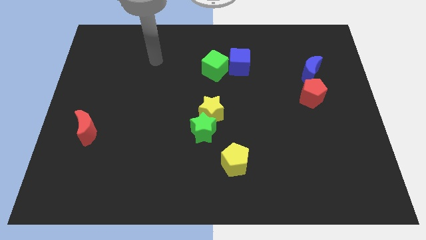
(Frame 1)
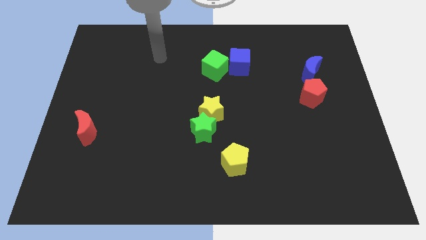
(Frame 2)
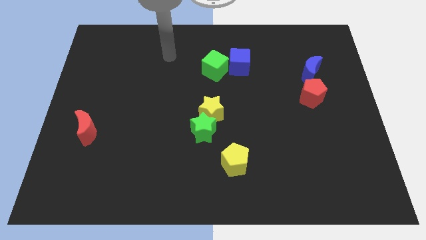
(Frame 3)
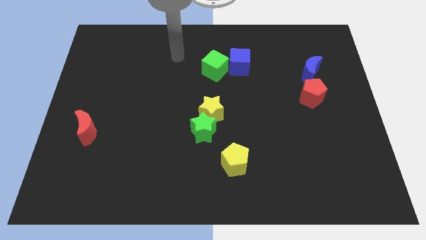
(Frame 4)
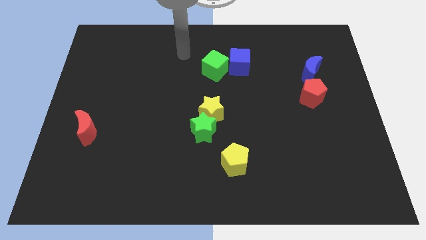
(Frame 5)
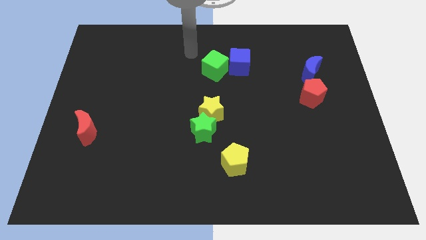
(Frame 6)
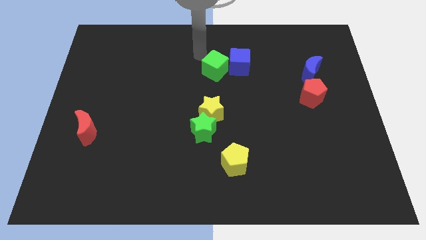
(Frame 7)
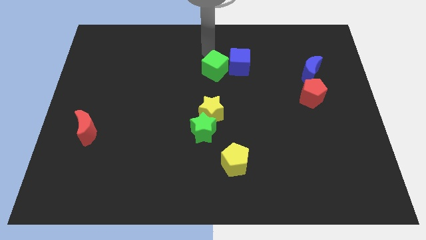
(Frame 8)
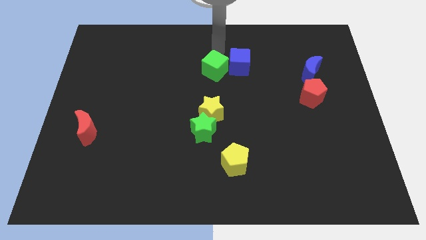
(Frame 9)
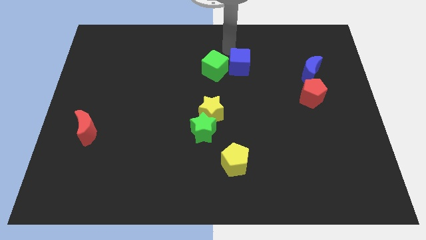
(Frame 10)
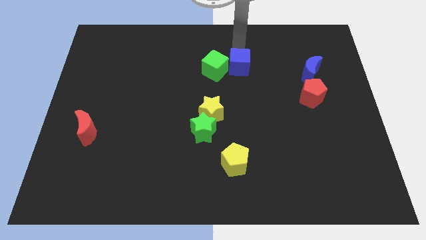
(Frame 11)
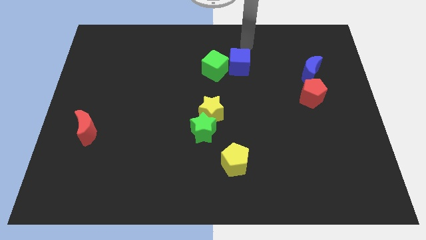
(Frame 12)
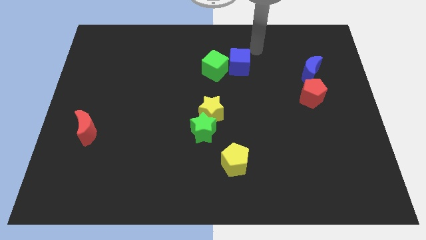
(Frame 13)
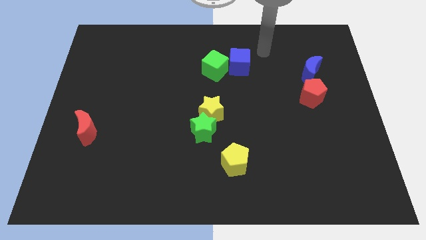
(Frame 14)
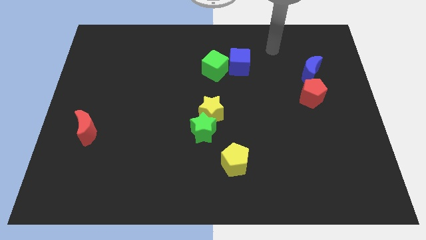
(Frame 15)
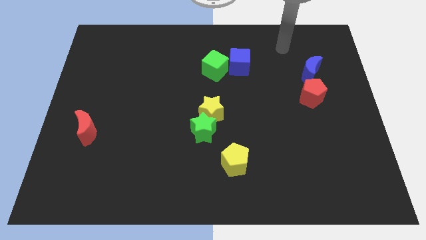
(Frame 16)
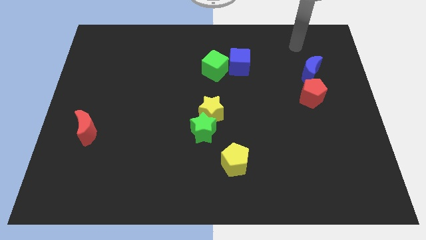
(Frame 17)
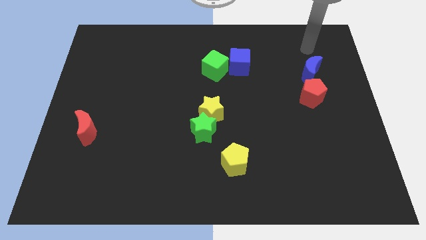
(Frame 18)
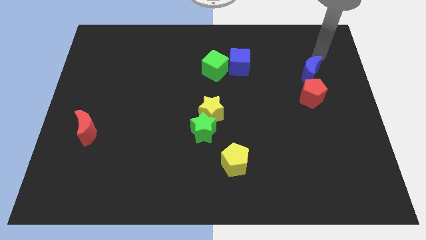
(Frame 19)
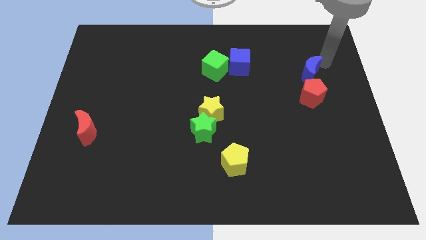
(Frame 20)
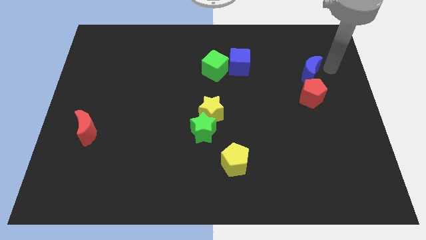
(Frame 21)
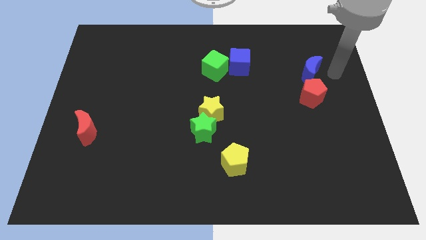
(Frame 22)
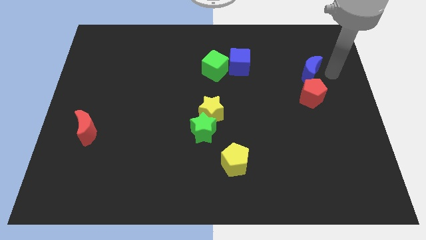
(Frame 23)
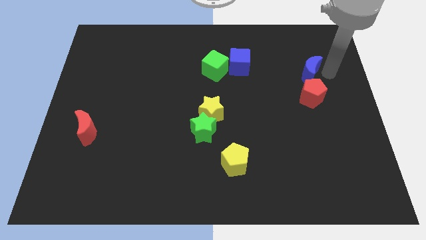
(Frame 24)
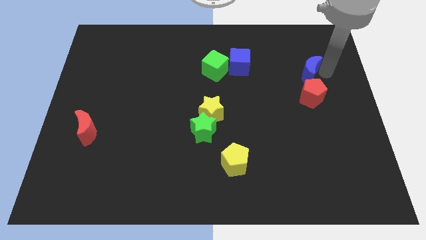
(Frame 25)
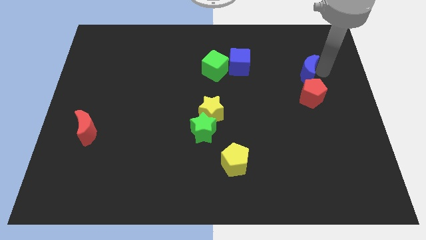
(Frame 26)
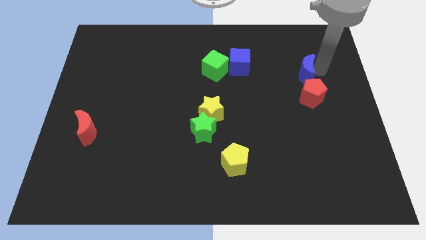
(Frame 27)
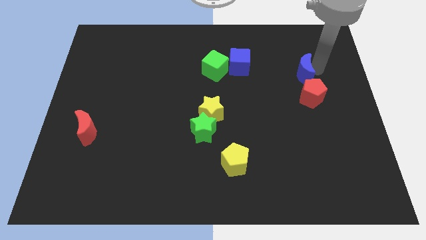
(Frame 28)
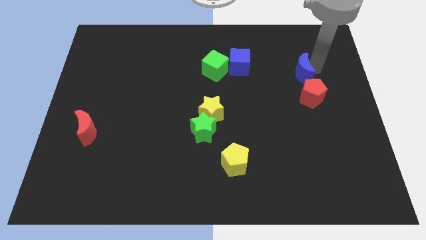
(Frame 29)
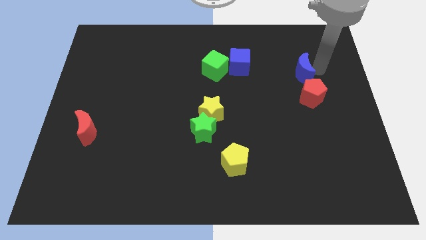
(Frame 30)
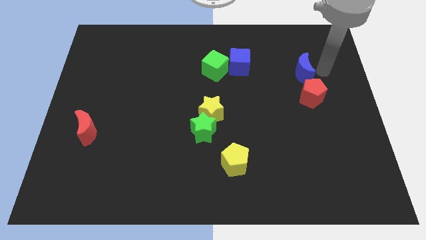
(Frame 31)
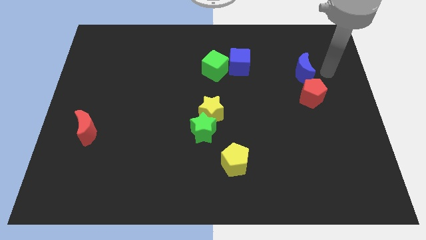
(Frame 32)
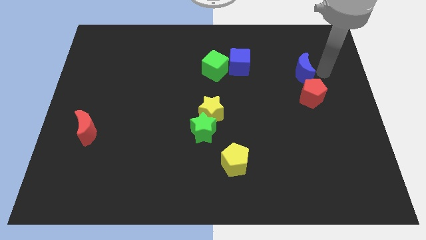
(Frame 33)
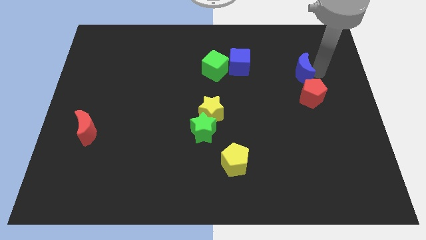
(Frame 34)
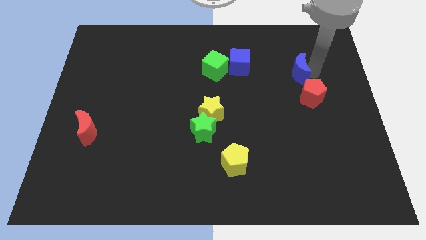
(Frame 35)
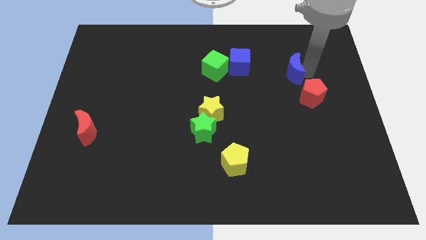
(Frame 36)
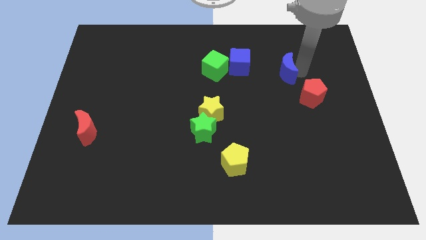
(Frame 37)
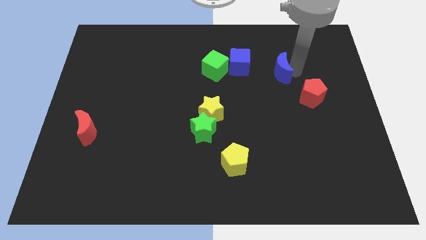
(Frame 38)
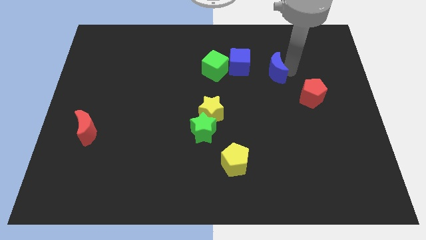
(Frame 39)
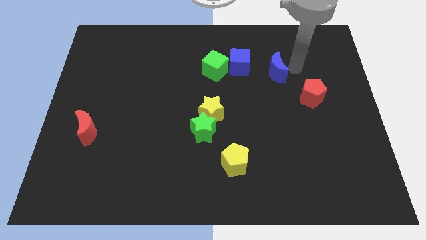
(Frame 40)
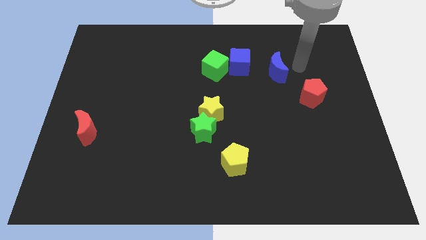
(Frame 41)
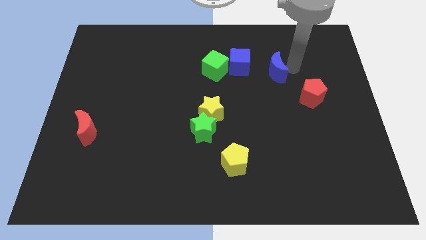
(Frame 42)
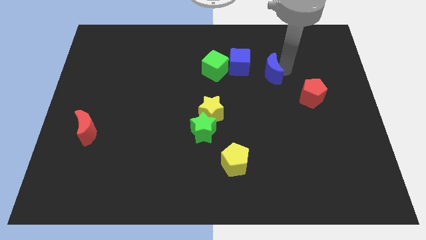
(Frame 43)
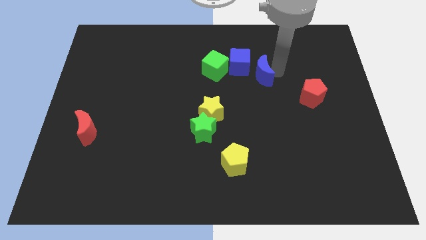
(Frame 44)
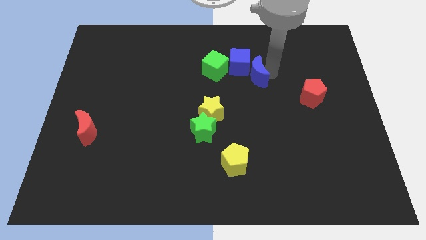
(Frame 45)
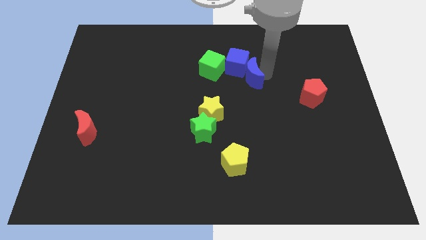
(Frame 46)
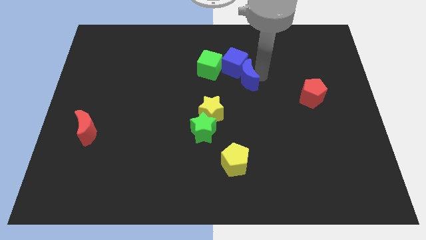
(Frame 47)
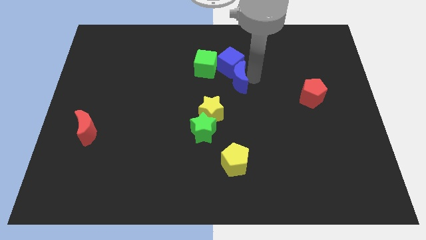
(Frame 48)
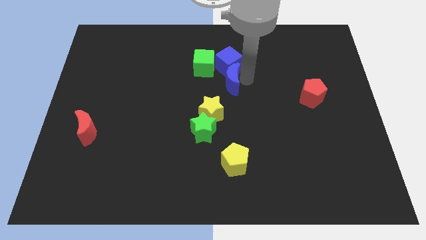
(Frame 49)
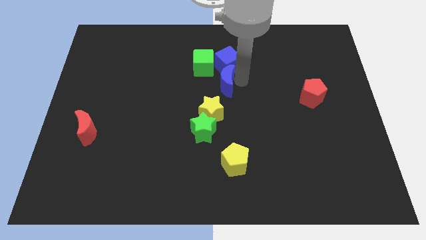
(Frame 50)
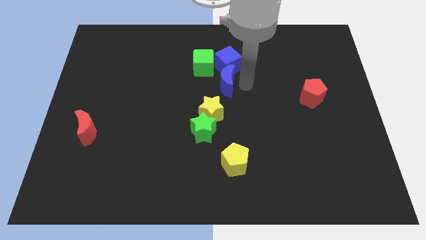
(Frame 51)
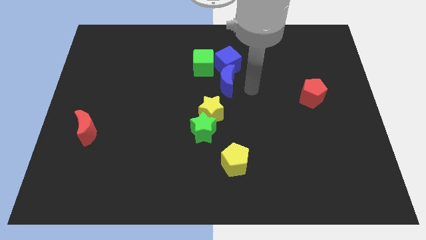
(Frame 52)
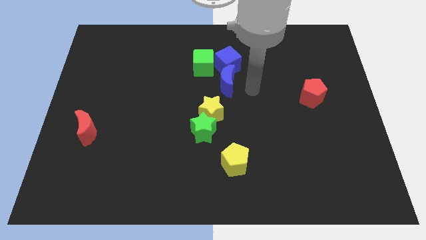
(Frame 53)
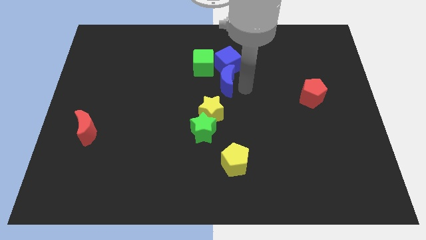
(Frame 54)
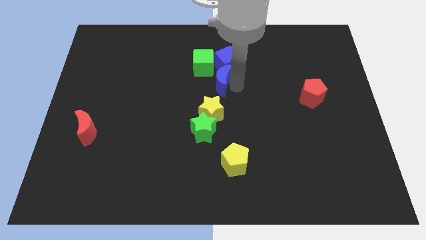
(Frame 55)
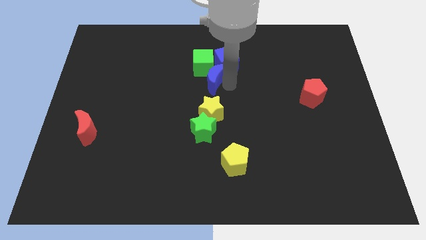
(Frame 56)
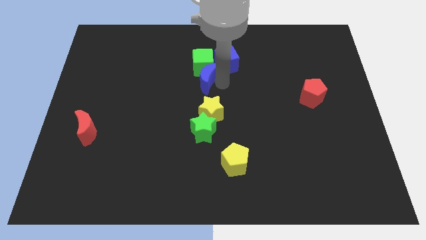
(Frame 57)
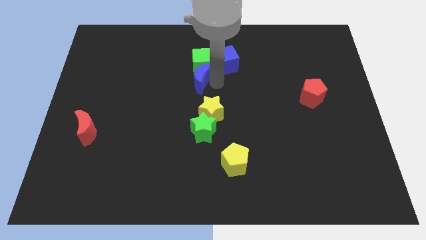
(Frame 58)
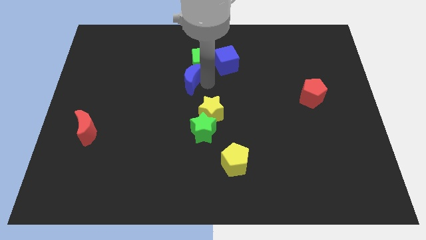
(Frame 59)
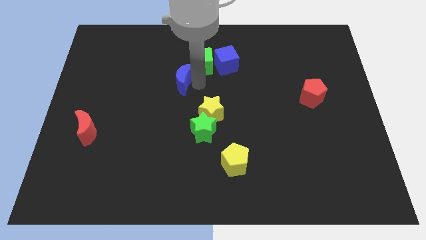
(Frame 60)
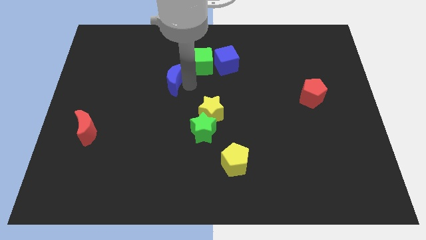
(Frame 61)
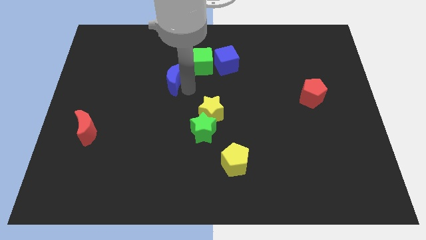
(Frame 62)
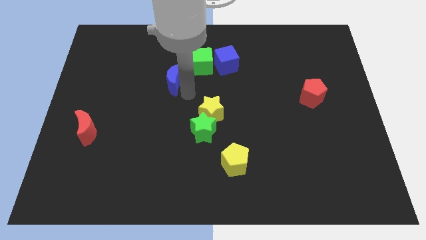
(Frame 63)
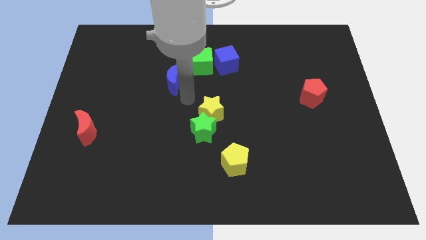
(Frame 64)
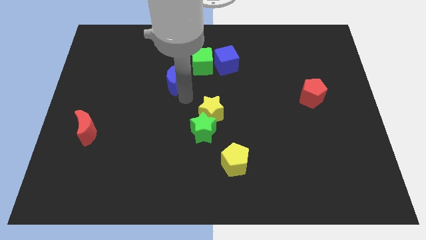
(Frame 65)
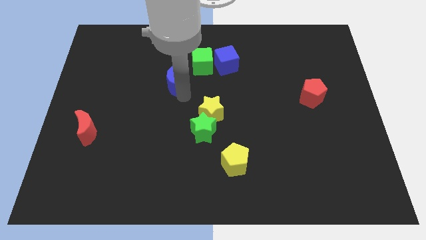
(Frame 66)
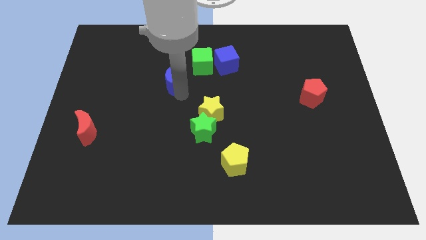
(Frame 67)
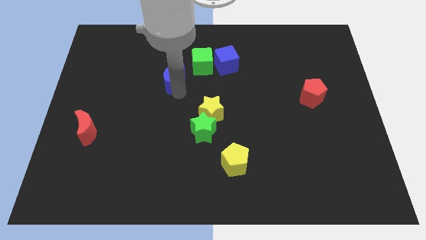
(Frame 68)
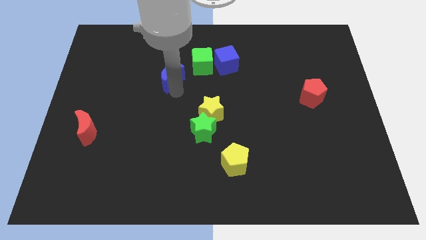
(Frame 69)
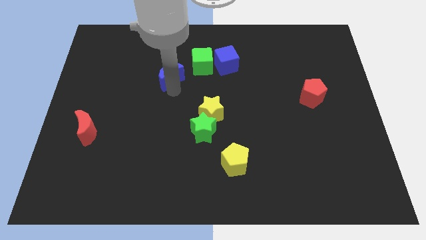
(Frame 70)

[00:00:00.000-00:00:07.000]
put the blue moon to the left side of the green cube

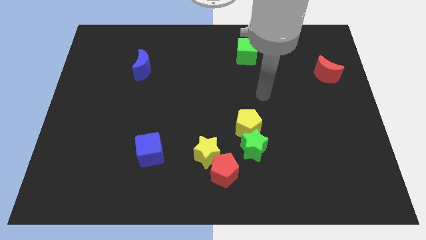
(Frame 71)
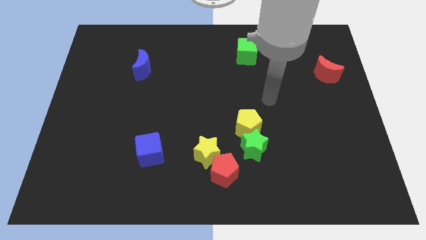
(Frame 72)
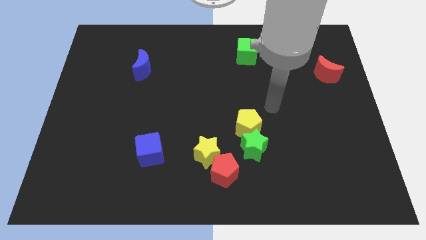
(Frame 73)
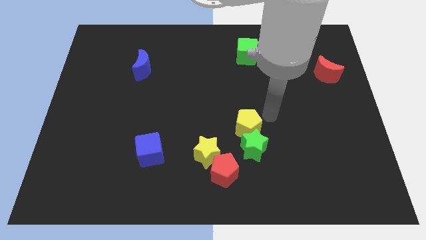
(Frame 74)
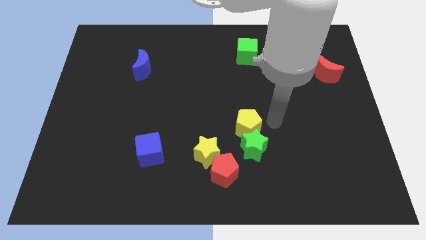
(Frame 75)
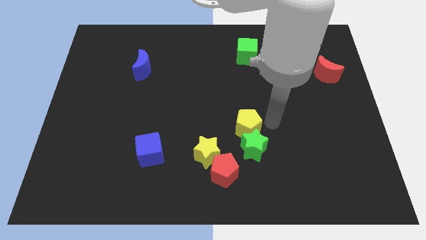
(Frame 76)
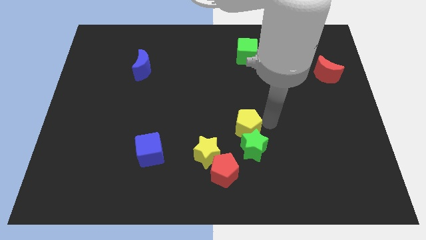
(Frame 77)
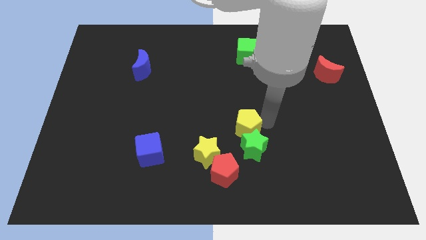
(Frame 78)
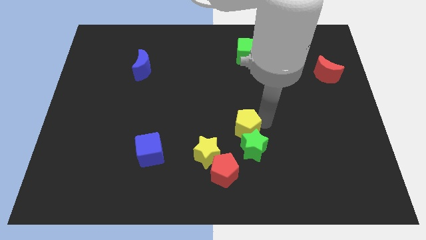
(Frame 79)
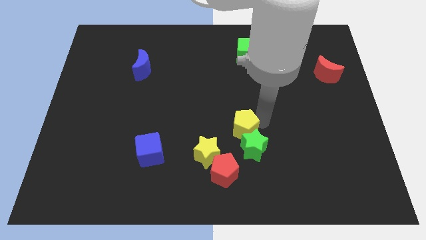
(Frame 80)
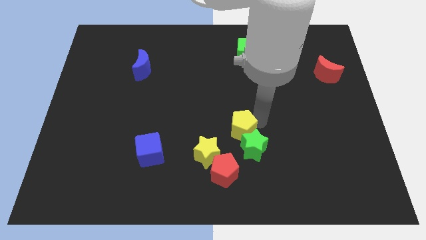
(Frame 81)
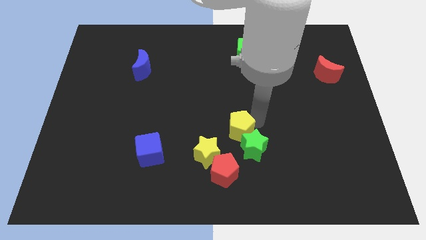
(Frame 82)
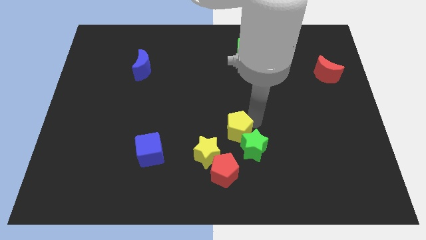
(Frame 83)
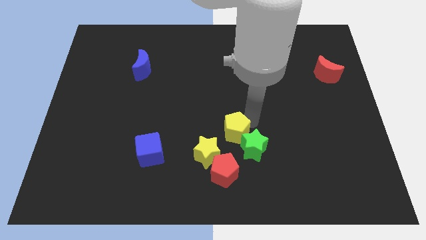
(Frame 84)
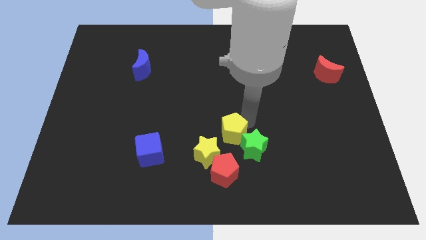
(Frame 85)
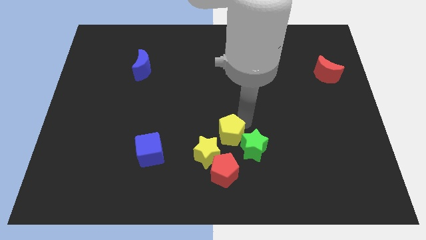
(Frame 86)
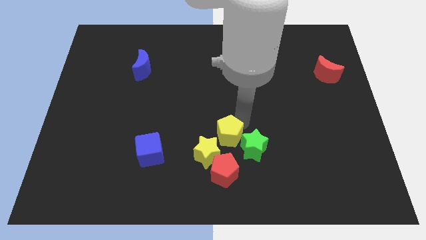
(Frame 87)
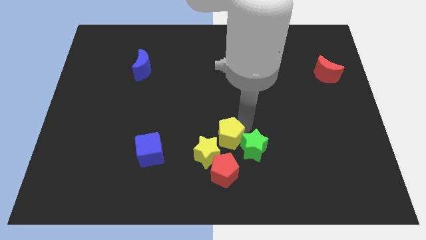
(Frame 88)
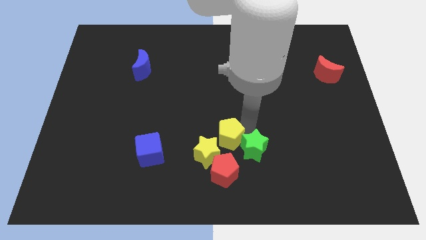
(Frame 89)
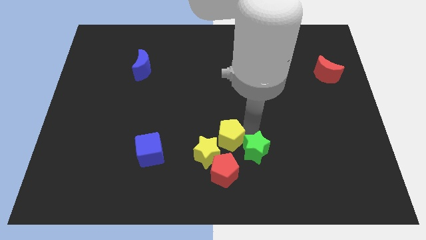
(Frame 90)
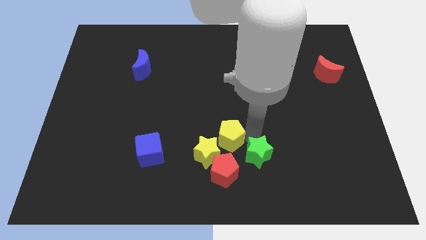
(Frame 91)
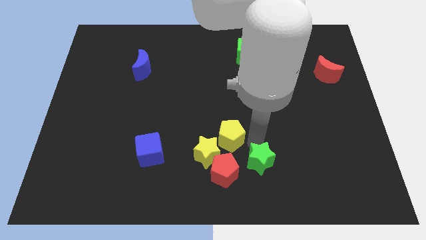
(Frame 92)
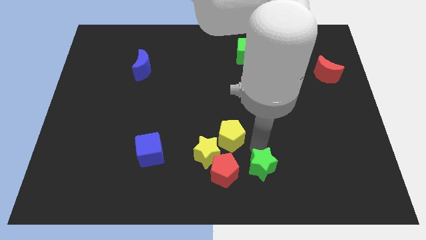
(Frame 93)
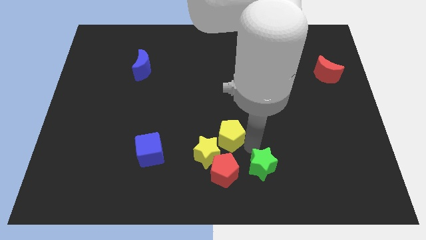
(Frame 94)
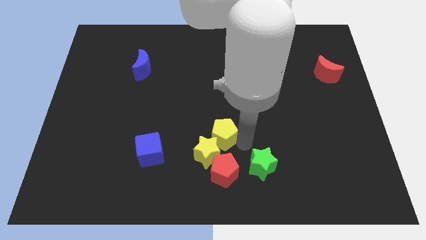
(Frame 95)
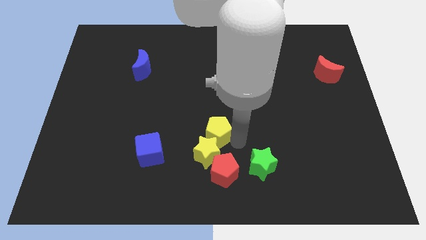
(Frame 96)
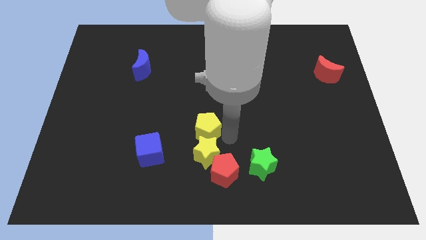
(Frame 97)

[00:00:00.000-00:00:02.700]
push the yellow pentagon to the top left side of the yellow star
